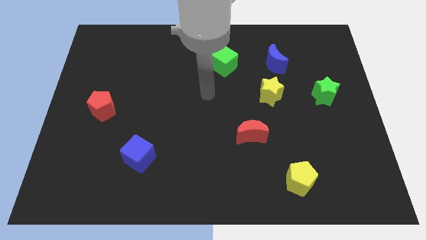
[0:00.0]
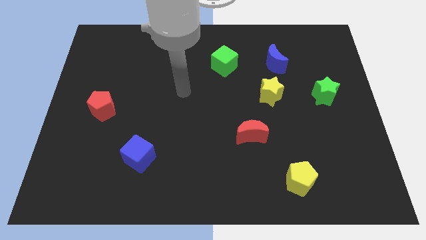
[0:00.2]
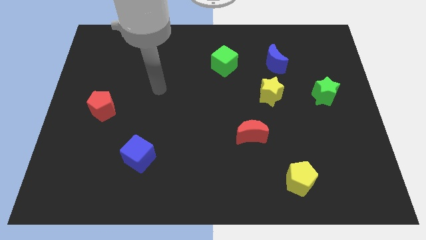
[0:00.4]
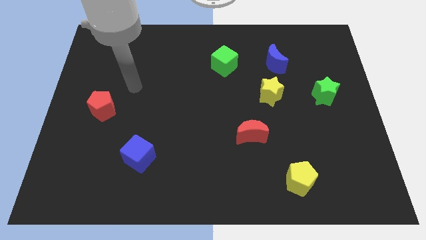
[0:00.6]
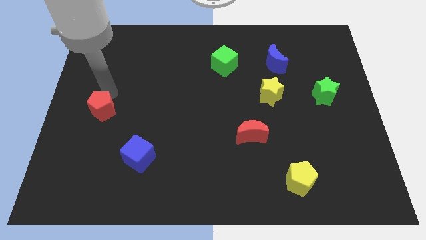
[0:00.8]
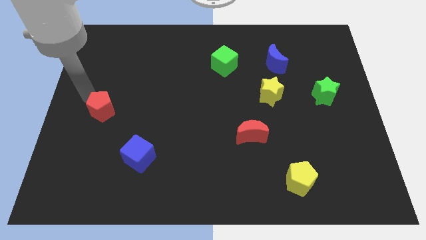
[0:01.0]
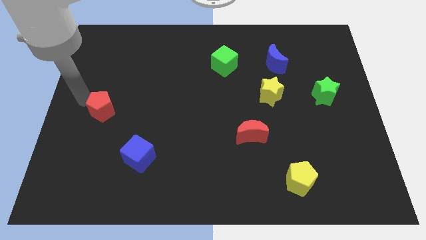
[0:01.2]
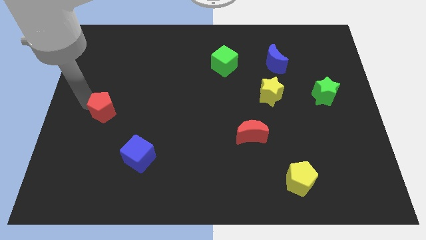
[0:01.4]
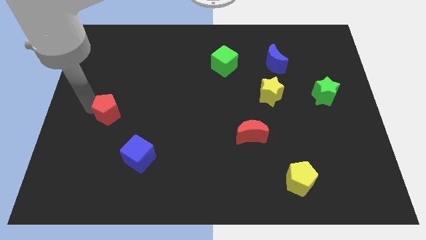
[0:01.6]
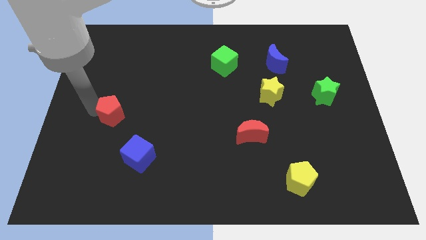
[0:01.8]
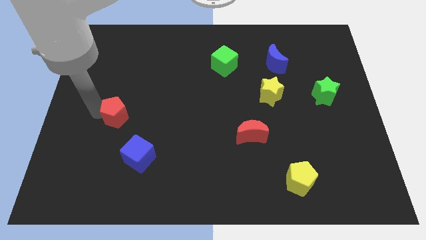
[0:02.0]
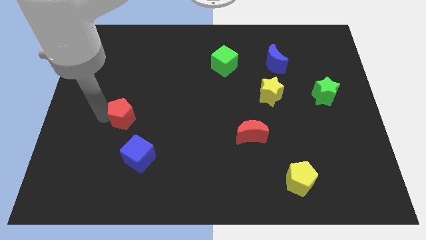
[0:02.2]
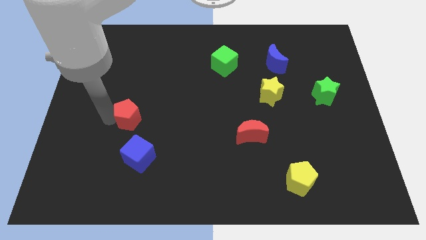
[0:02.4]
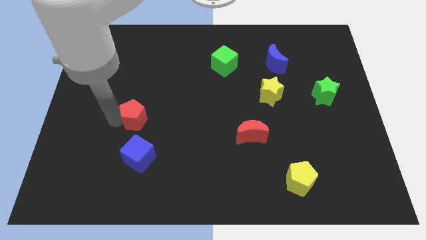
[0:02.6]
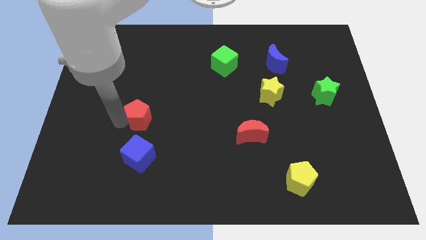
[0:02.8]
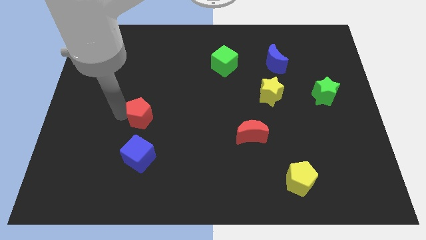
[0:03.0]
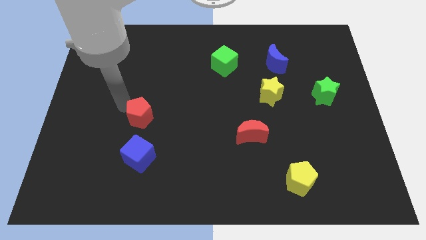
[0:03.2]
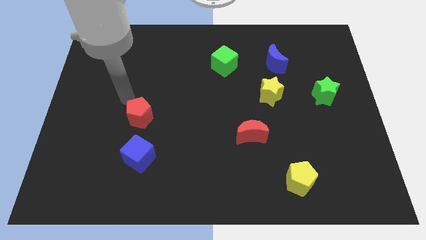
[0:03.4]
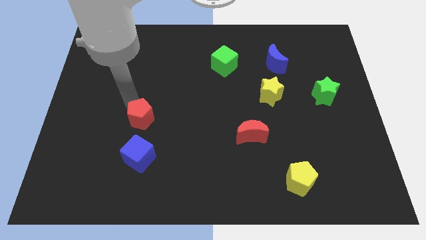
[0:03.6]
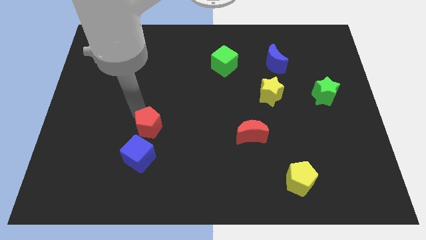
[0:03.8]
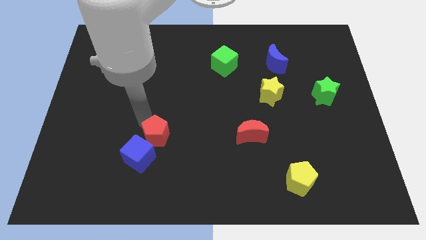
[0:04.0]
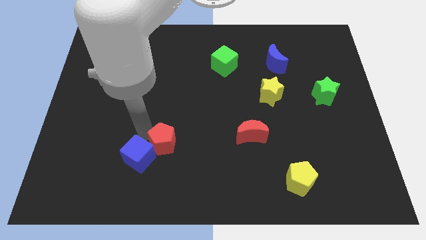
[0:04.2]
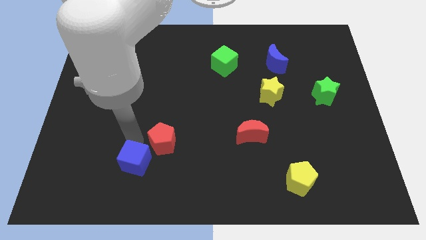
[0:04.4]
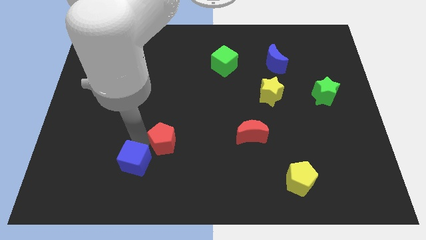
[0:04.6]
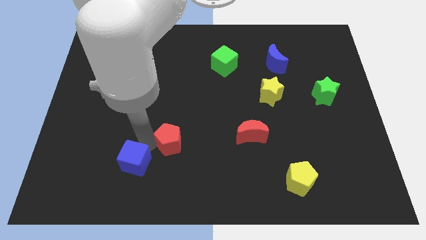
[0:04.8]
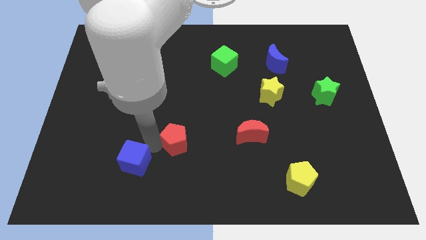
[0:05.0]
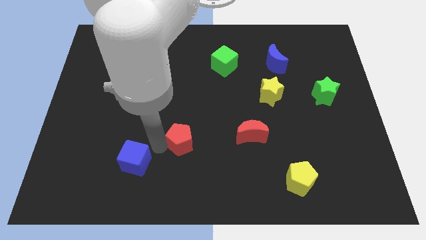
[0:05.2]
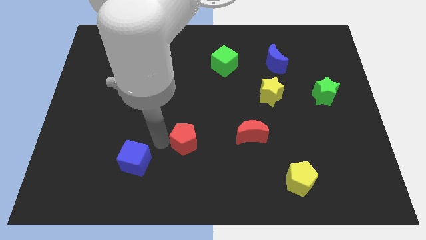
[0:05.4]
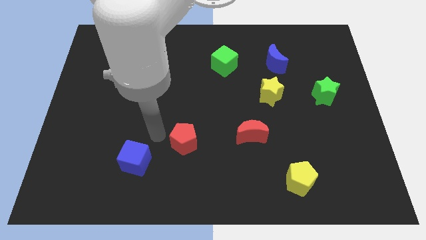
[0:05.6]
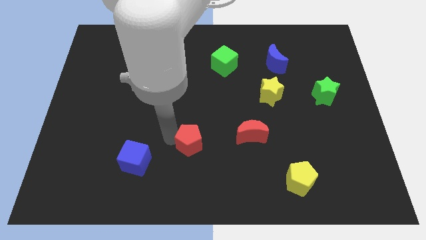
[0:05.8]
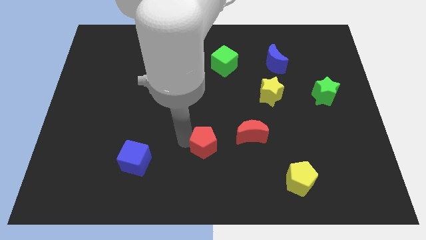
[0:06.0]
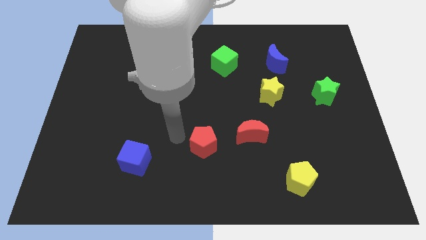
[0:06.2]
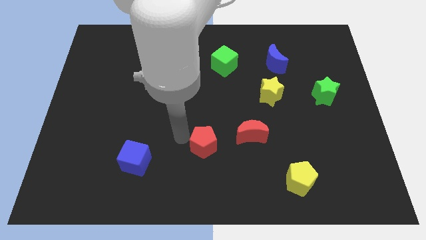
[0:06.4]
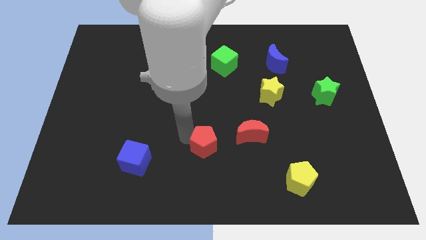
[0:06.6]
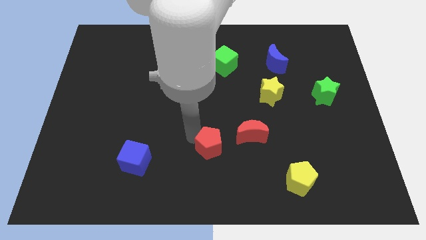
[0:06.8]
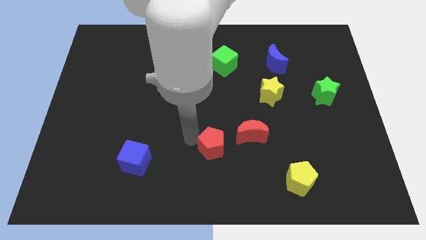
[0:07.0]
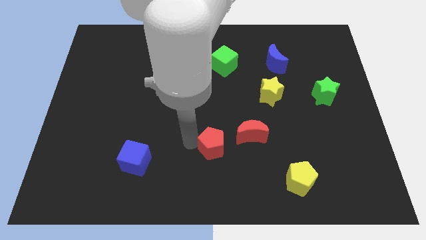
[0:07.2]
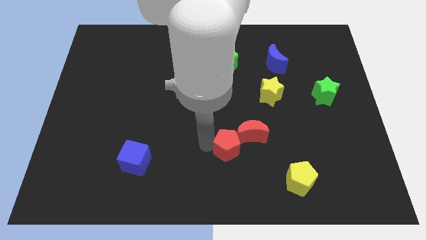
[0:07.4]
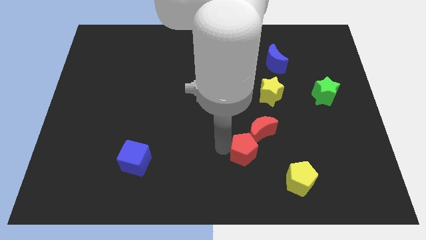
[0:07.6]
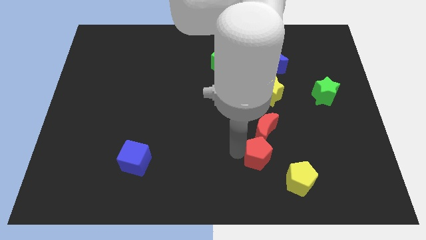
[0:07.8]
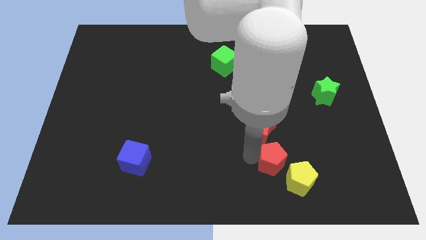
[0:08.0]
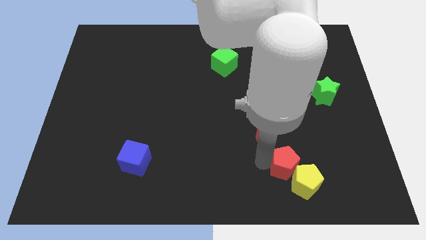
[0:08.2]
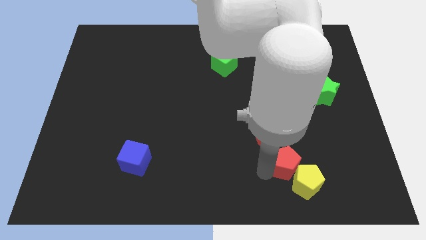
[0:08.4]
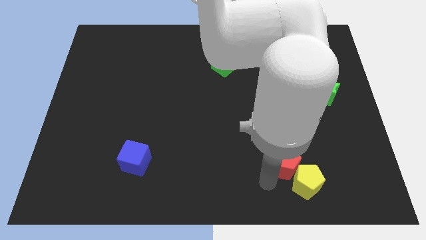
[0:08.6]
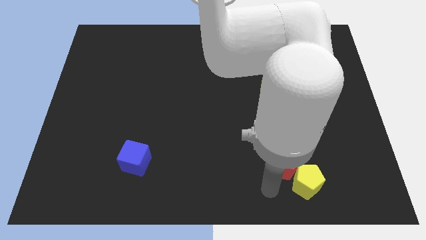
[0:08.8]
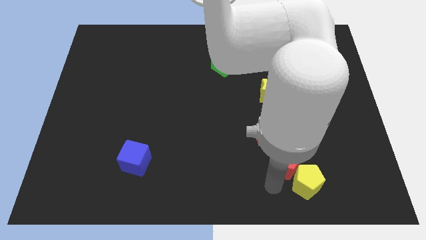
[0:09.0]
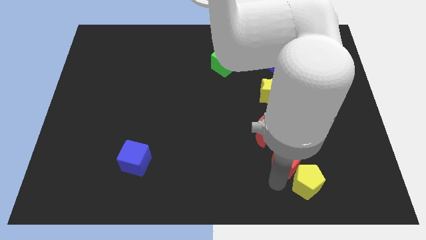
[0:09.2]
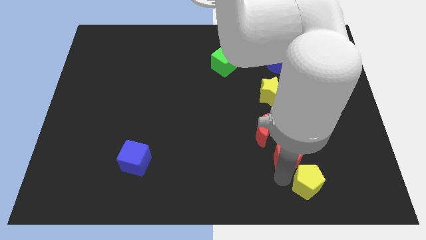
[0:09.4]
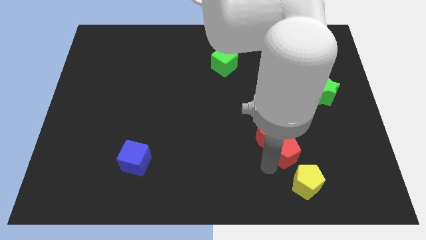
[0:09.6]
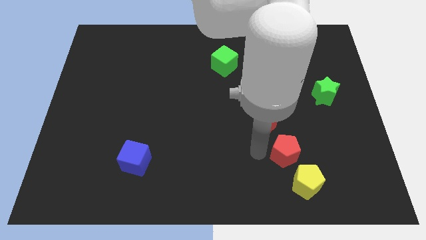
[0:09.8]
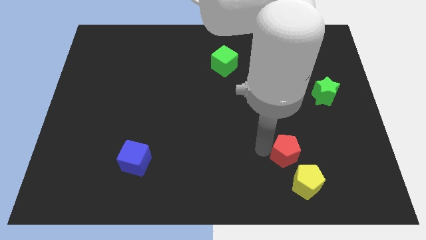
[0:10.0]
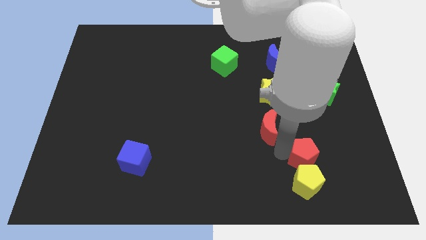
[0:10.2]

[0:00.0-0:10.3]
put the red pentagon diagonally up and to the right of the yellow pentagon

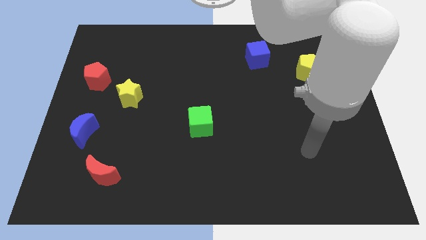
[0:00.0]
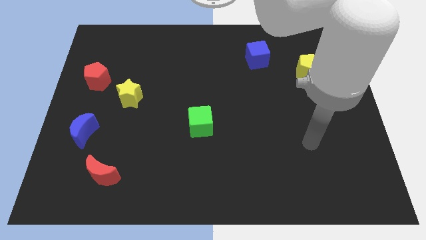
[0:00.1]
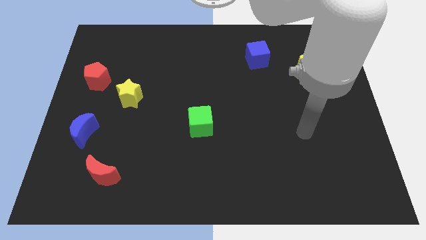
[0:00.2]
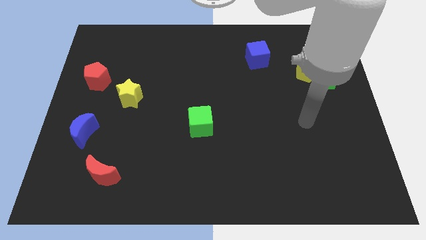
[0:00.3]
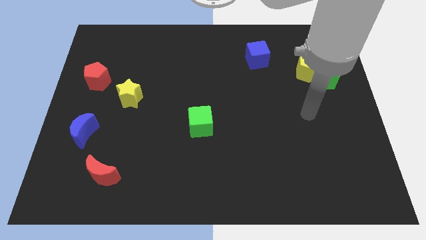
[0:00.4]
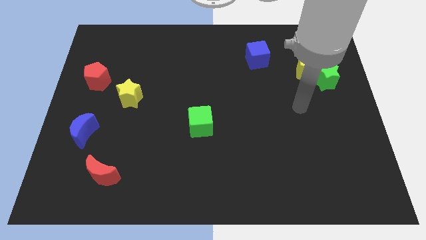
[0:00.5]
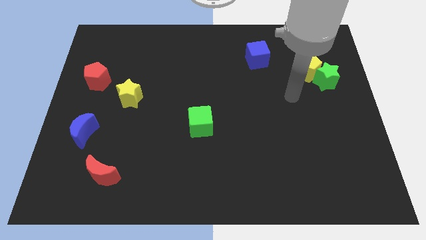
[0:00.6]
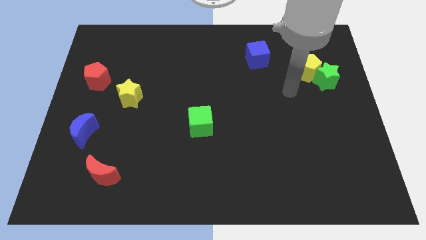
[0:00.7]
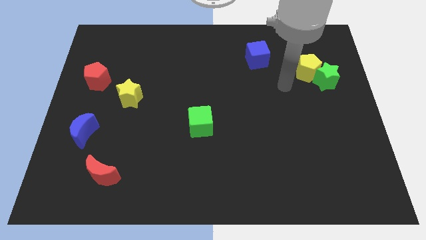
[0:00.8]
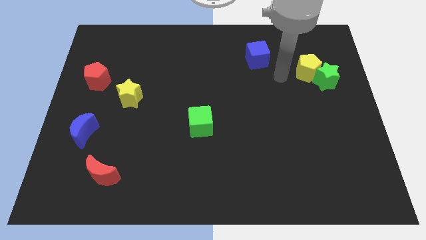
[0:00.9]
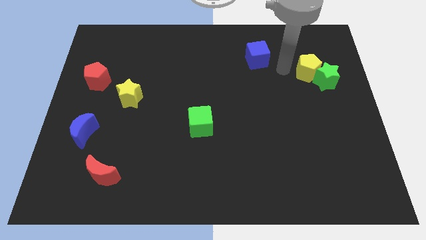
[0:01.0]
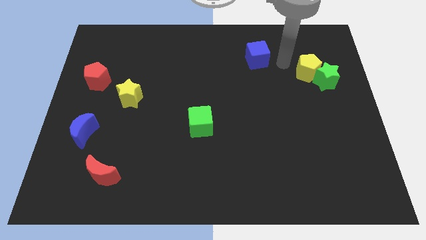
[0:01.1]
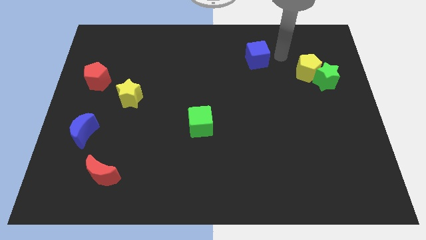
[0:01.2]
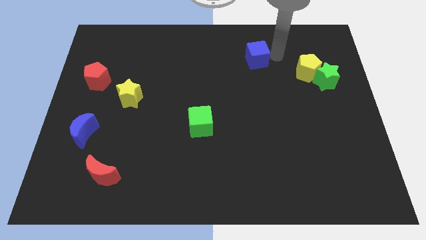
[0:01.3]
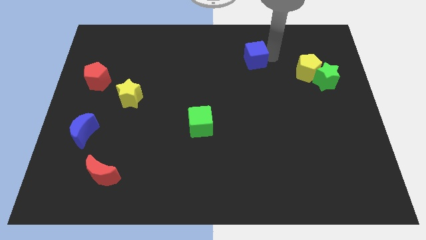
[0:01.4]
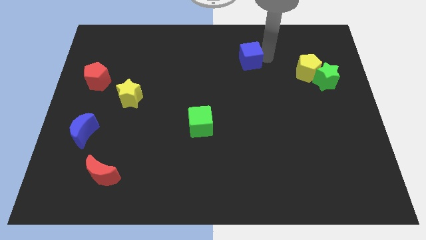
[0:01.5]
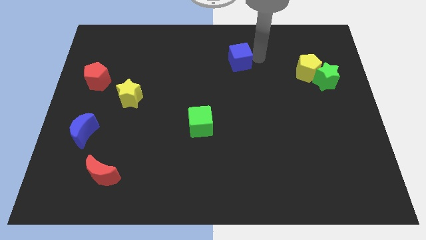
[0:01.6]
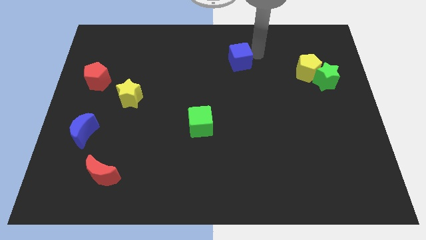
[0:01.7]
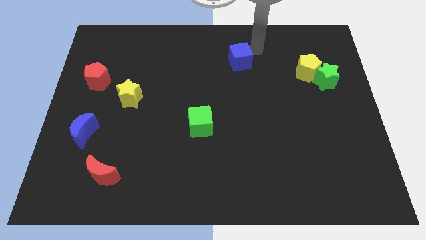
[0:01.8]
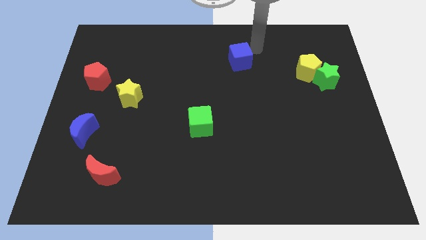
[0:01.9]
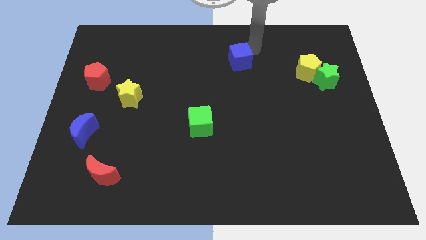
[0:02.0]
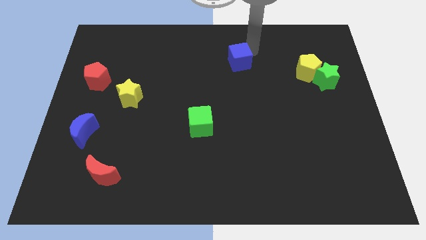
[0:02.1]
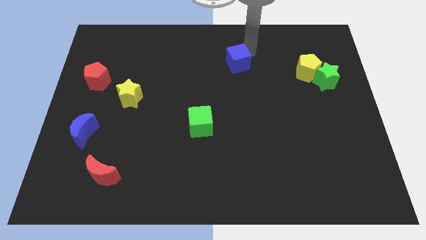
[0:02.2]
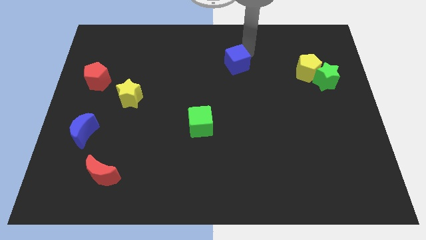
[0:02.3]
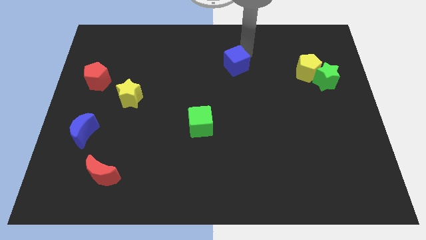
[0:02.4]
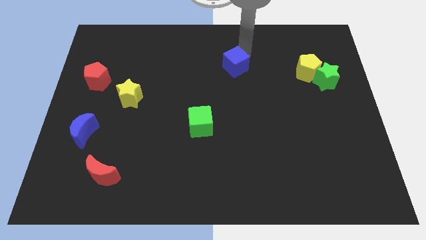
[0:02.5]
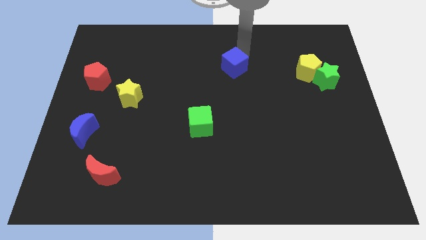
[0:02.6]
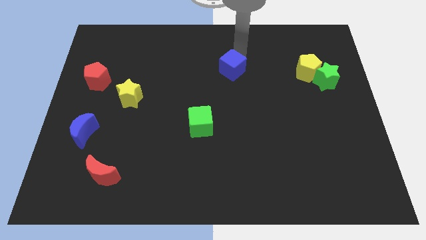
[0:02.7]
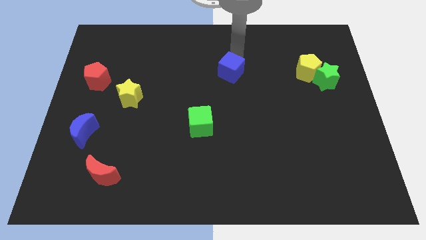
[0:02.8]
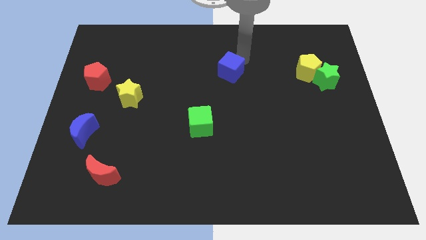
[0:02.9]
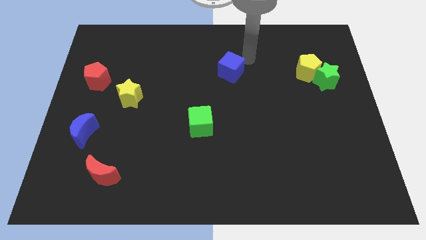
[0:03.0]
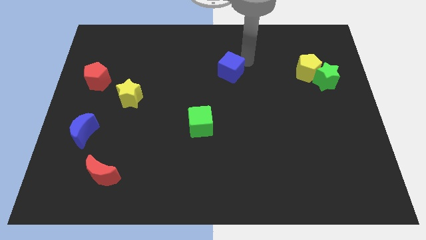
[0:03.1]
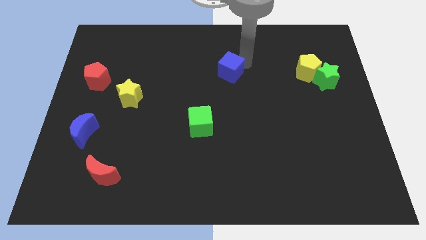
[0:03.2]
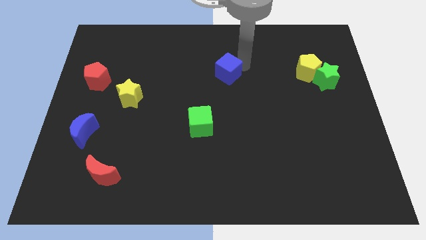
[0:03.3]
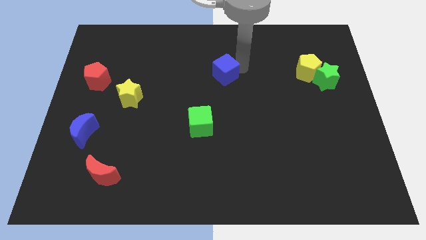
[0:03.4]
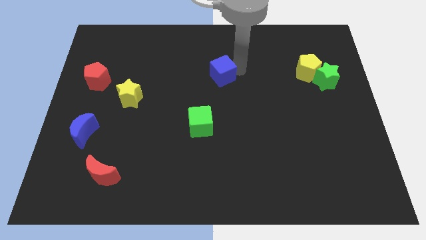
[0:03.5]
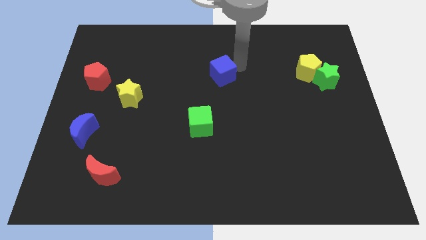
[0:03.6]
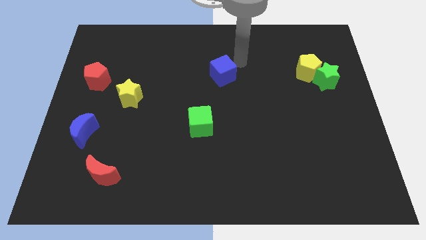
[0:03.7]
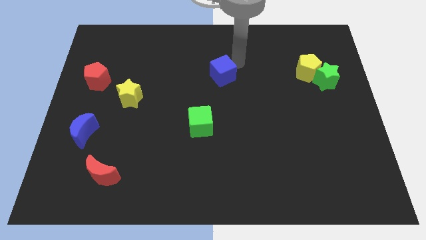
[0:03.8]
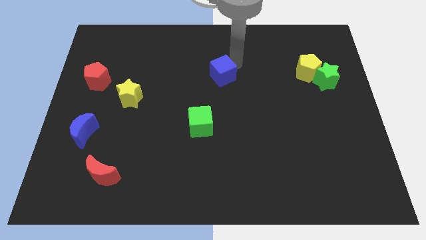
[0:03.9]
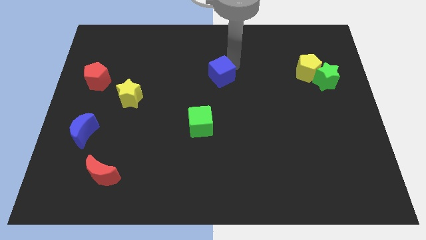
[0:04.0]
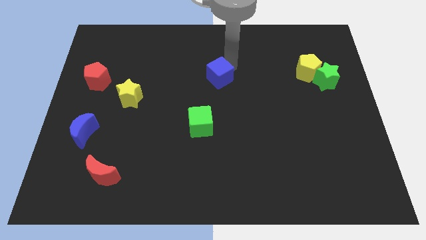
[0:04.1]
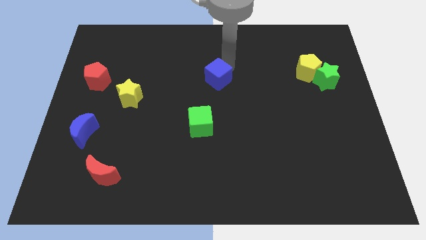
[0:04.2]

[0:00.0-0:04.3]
put the blue cube to the top side of the green cube
